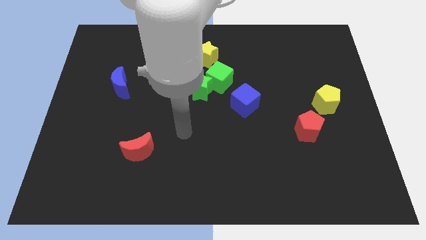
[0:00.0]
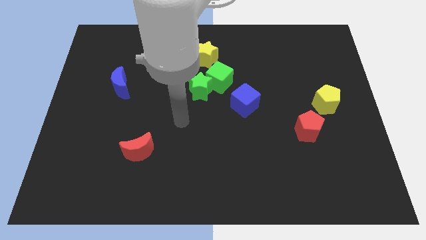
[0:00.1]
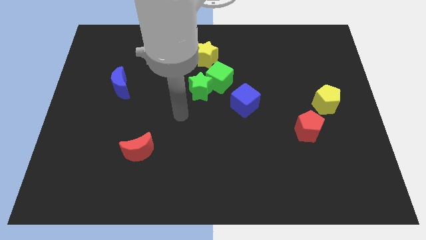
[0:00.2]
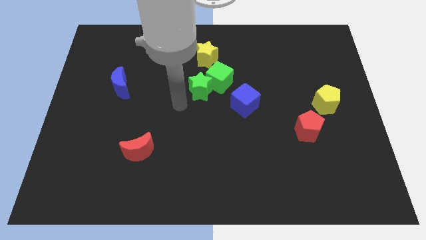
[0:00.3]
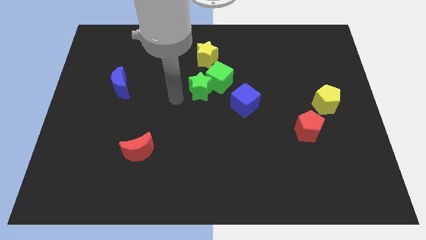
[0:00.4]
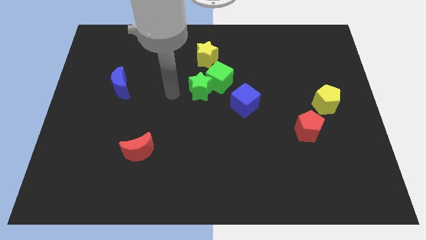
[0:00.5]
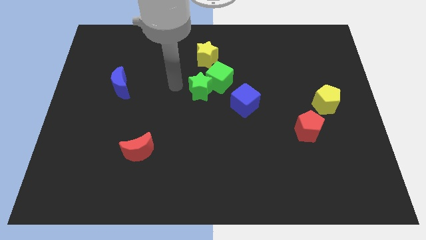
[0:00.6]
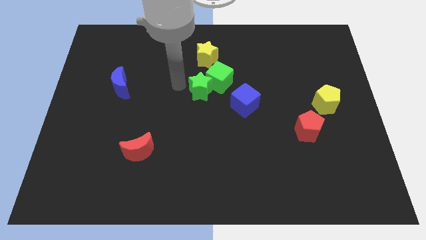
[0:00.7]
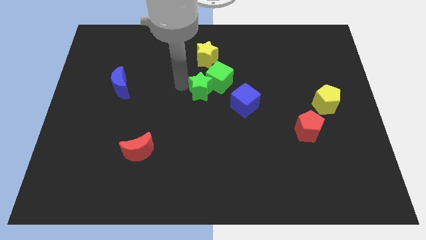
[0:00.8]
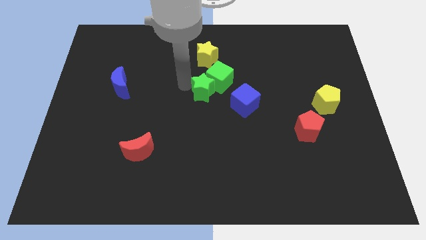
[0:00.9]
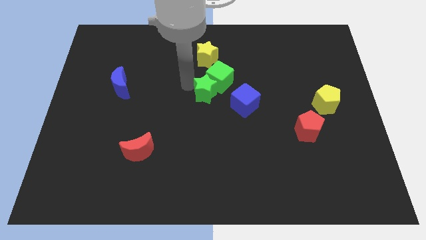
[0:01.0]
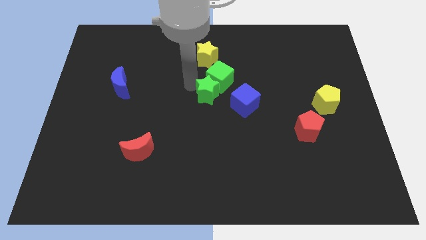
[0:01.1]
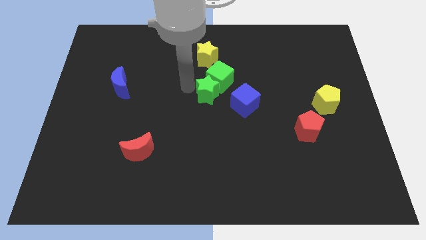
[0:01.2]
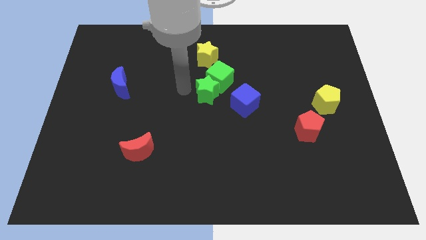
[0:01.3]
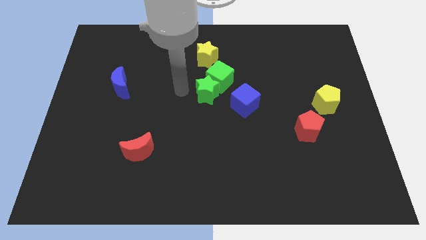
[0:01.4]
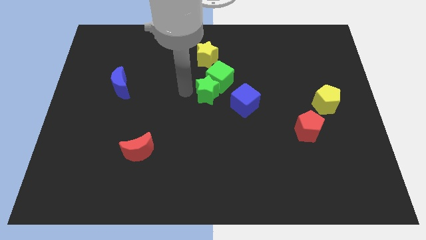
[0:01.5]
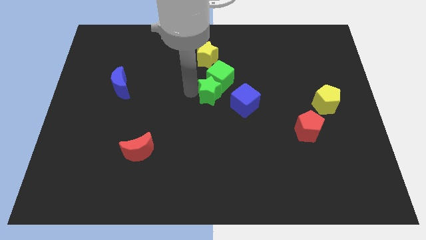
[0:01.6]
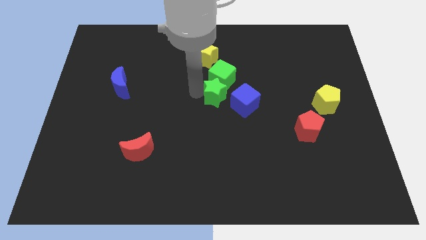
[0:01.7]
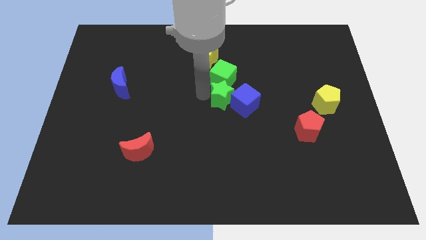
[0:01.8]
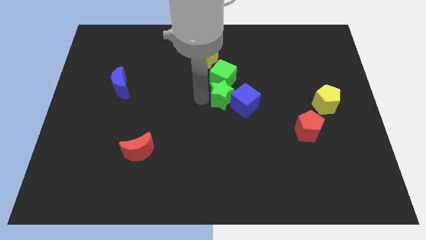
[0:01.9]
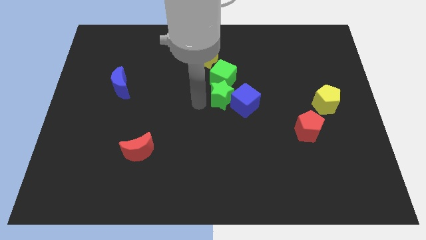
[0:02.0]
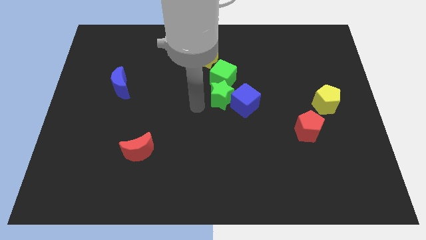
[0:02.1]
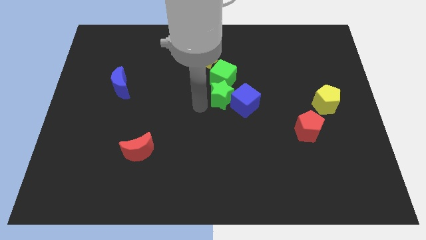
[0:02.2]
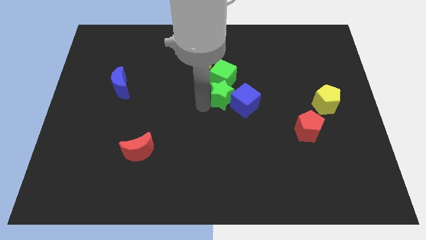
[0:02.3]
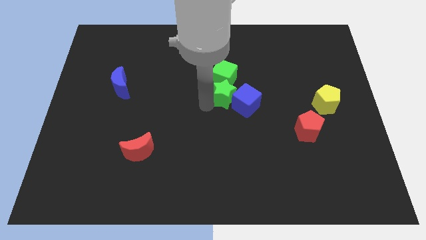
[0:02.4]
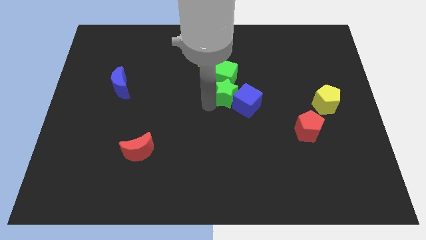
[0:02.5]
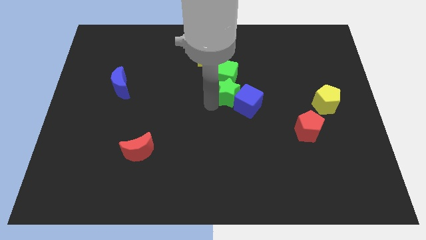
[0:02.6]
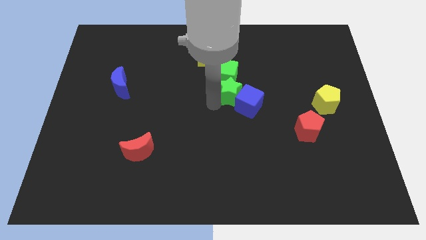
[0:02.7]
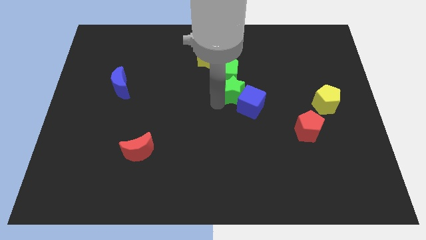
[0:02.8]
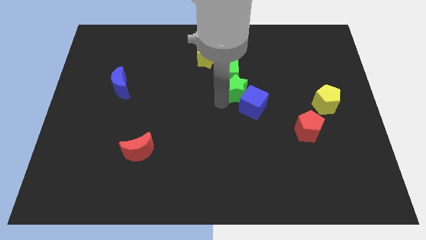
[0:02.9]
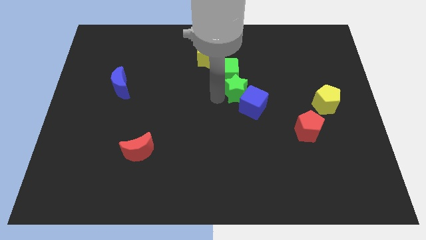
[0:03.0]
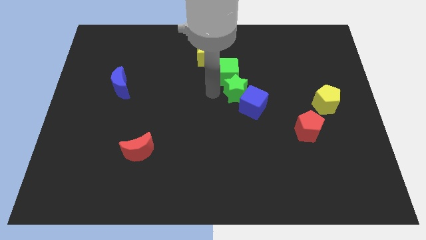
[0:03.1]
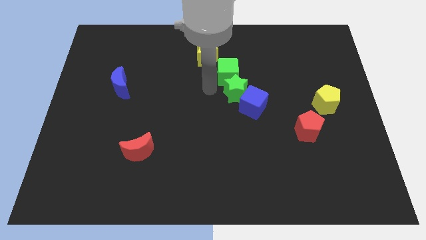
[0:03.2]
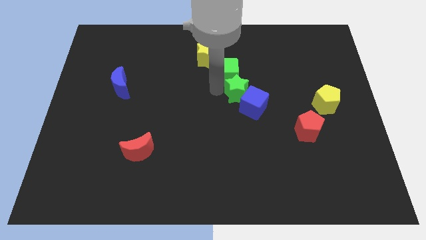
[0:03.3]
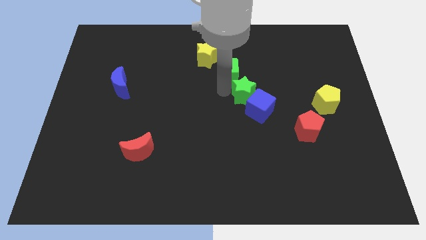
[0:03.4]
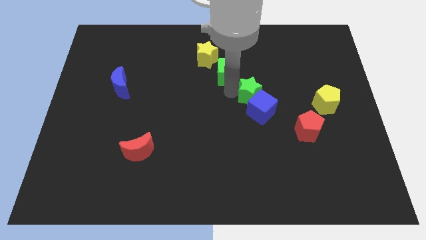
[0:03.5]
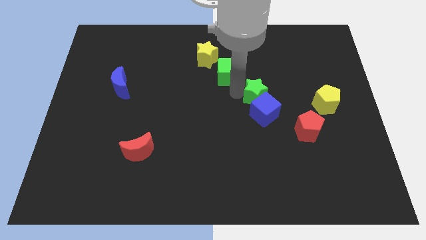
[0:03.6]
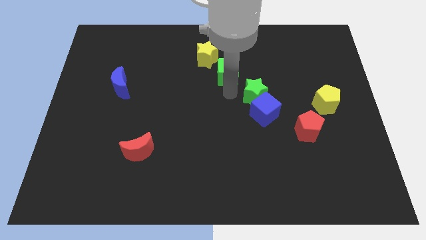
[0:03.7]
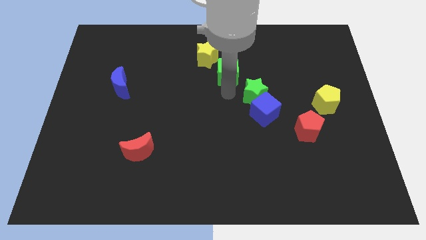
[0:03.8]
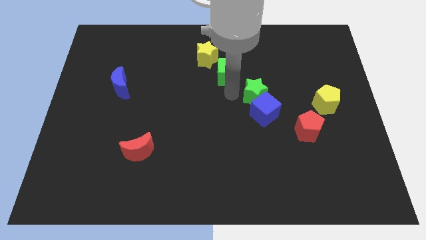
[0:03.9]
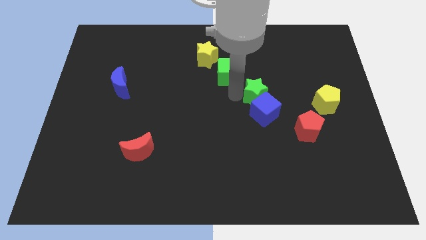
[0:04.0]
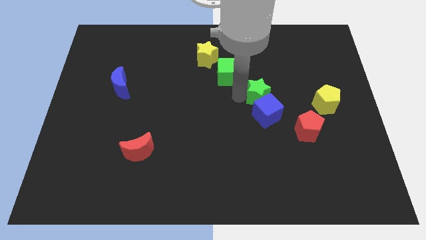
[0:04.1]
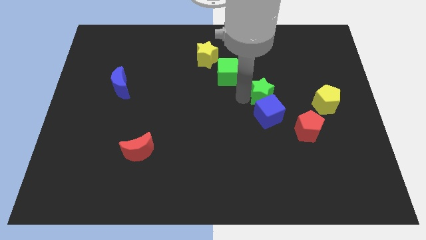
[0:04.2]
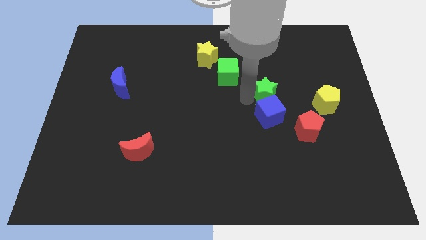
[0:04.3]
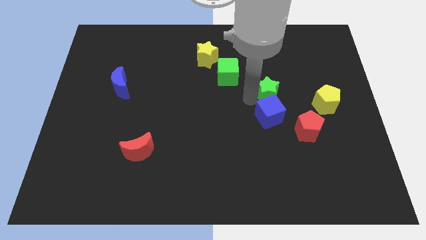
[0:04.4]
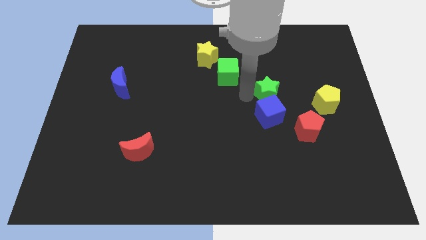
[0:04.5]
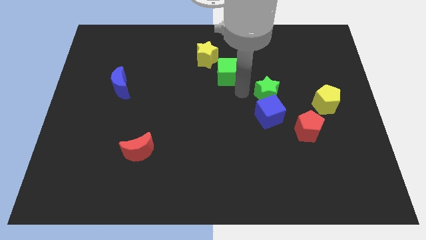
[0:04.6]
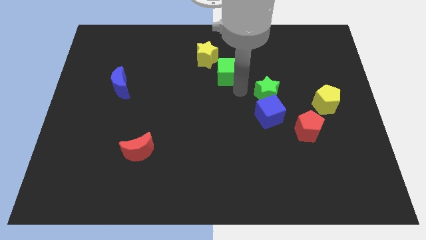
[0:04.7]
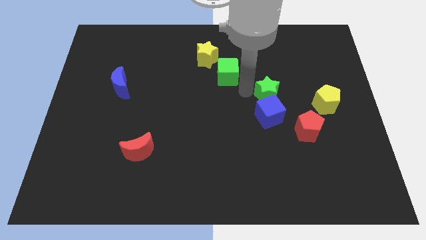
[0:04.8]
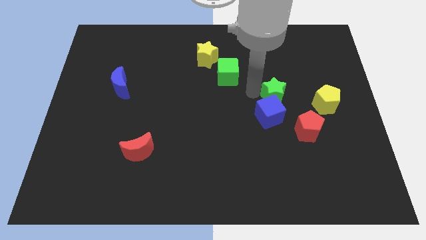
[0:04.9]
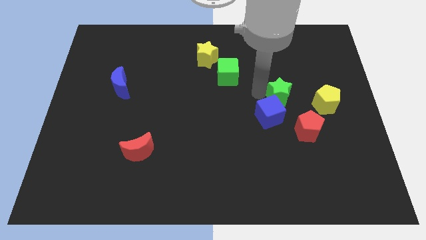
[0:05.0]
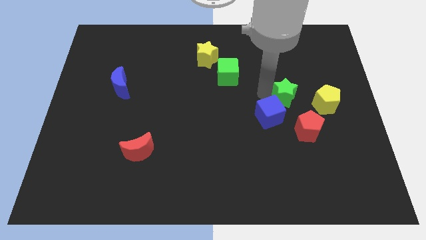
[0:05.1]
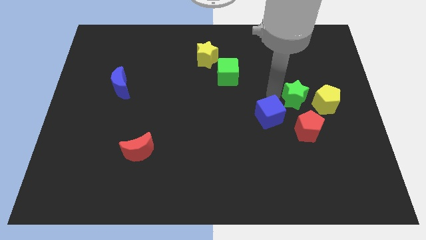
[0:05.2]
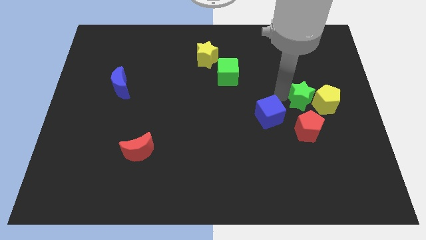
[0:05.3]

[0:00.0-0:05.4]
slide the green star next to the yellow pentagon

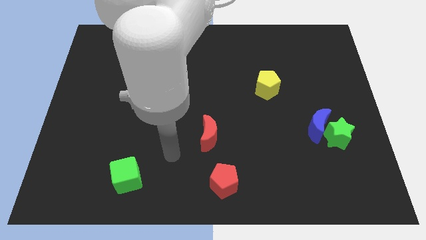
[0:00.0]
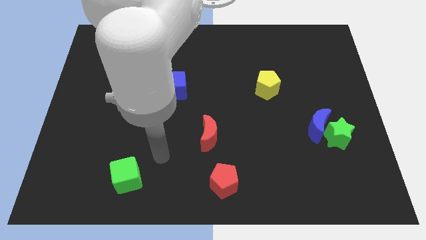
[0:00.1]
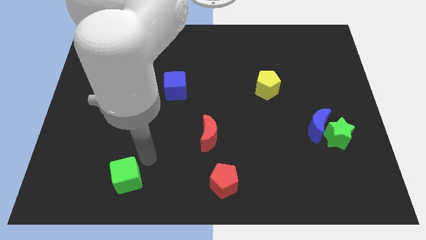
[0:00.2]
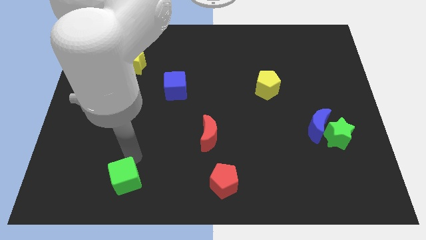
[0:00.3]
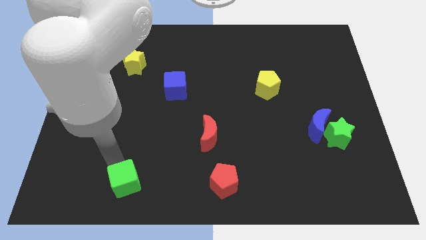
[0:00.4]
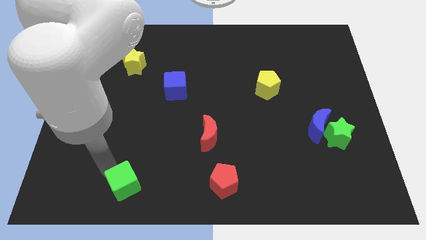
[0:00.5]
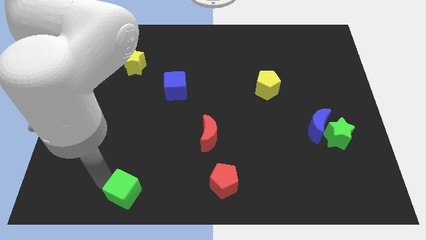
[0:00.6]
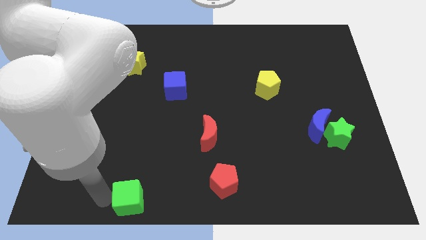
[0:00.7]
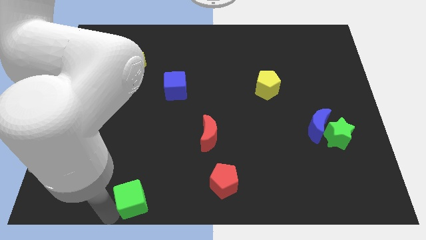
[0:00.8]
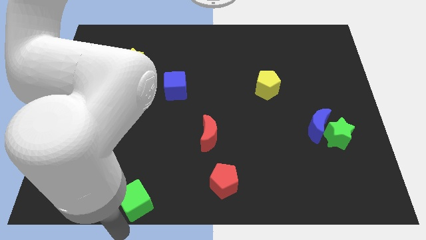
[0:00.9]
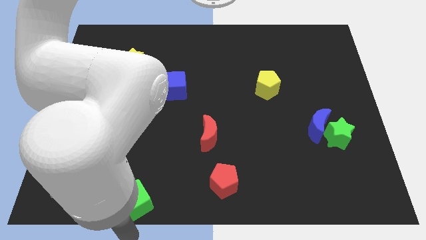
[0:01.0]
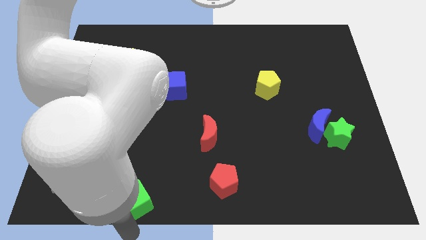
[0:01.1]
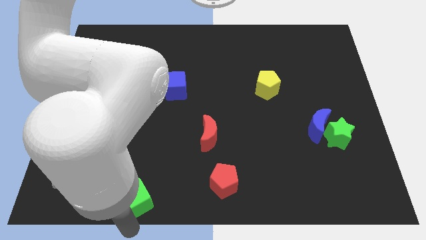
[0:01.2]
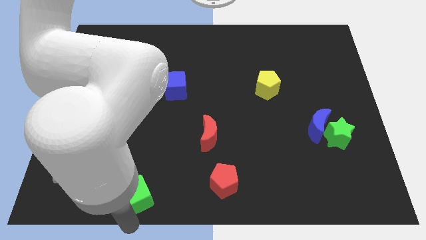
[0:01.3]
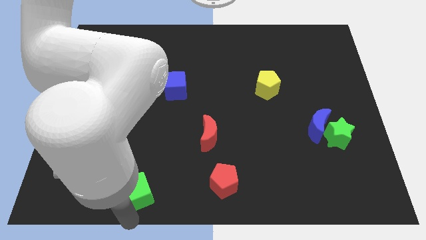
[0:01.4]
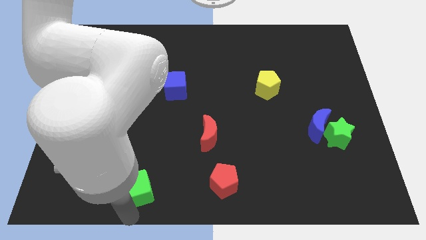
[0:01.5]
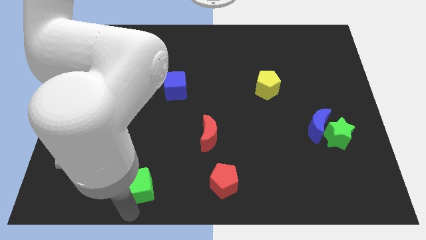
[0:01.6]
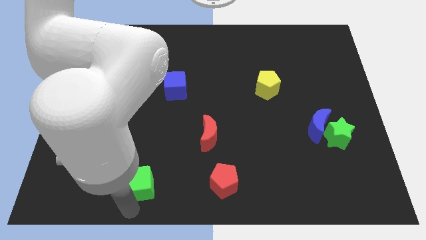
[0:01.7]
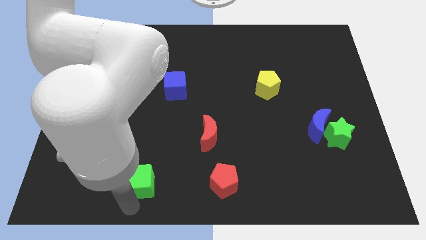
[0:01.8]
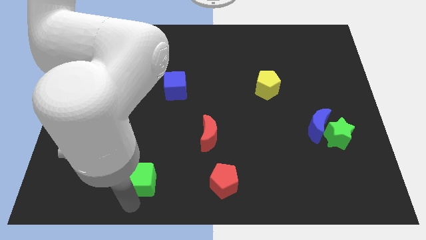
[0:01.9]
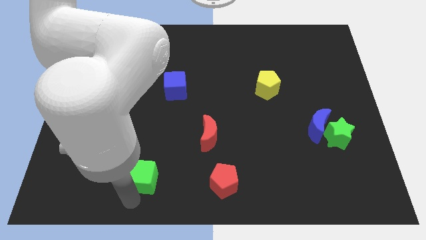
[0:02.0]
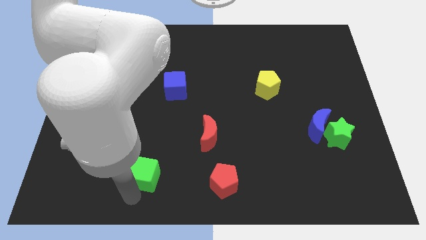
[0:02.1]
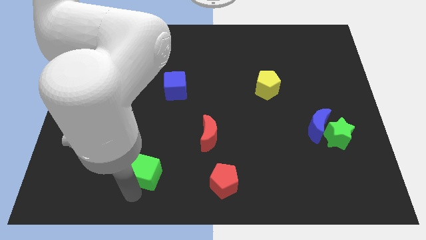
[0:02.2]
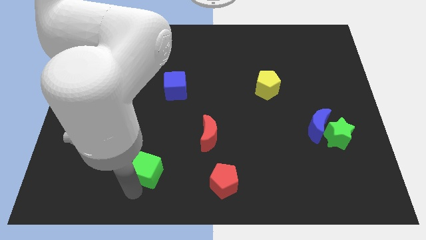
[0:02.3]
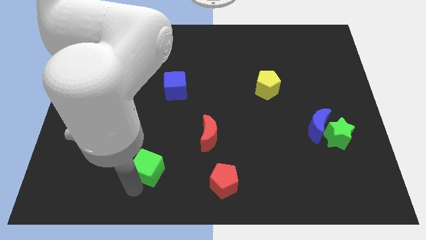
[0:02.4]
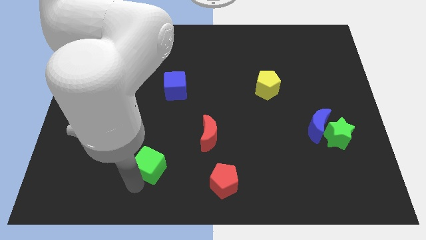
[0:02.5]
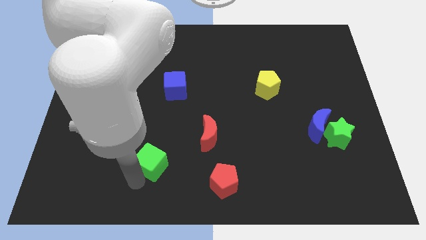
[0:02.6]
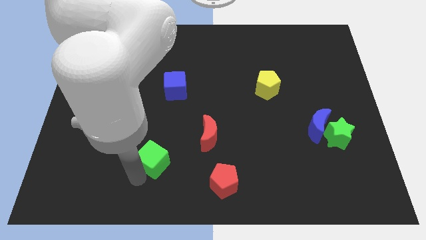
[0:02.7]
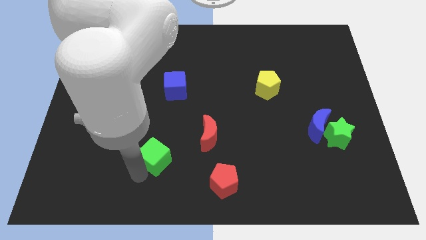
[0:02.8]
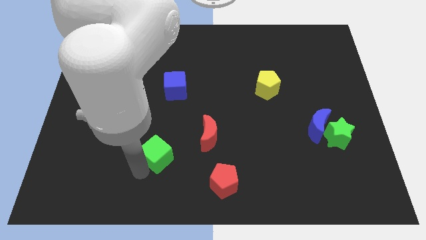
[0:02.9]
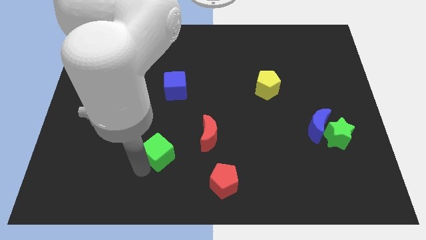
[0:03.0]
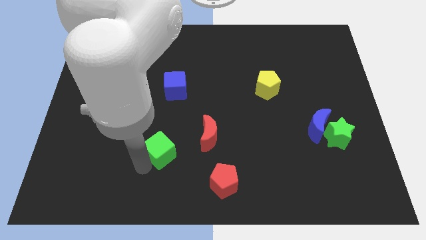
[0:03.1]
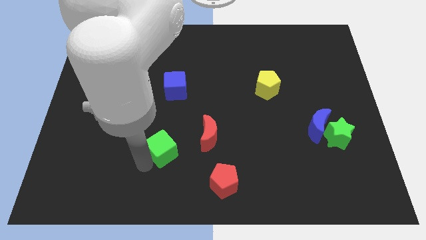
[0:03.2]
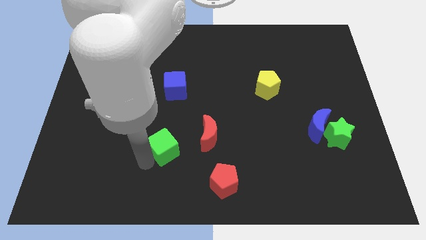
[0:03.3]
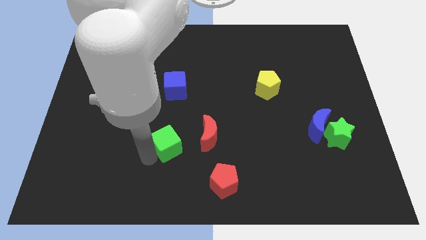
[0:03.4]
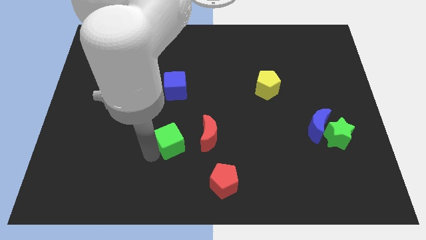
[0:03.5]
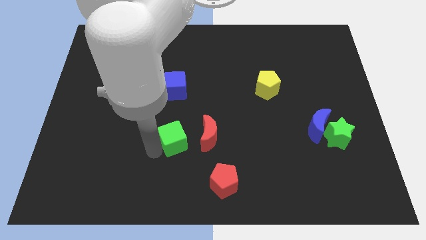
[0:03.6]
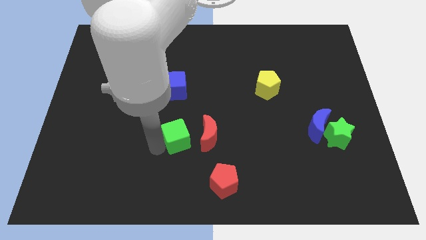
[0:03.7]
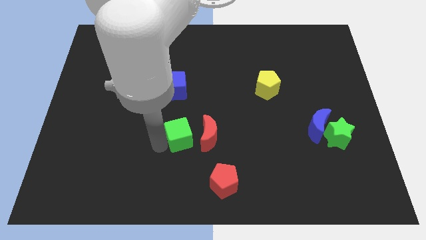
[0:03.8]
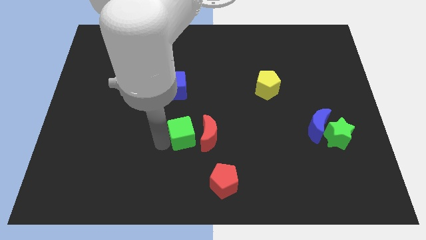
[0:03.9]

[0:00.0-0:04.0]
push the green cube to the red moon
